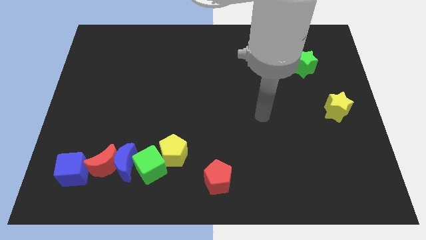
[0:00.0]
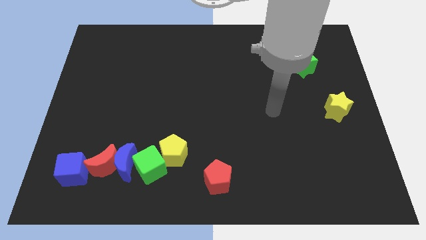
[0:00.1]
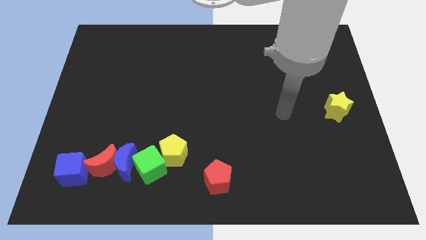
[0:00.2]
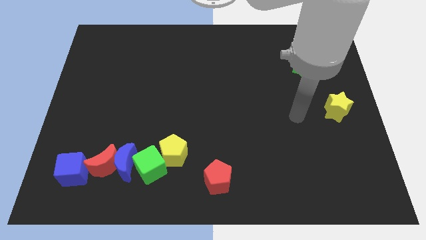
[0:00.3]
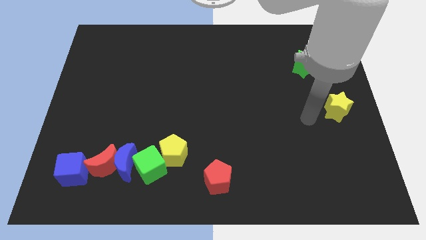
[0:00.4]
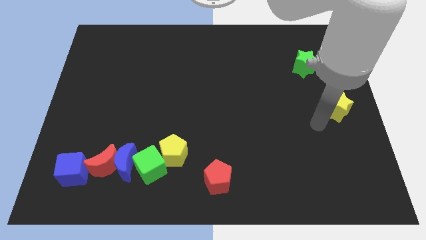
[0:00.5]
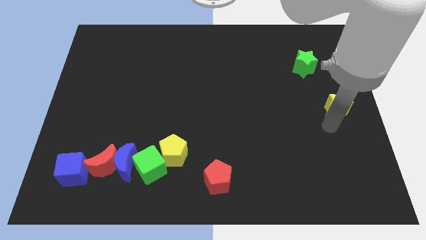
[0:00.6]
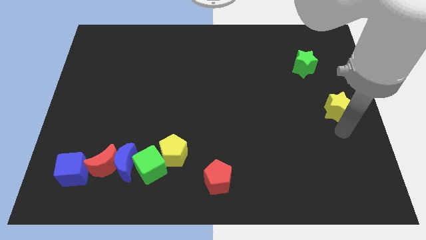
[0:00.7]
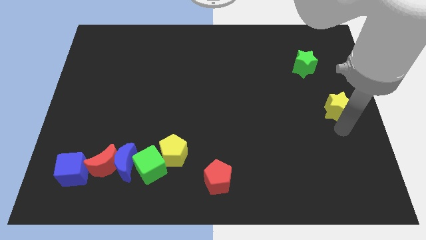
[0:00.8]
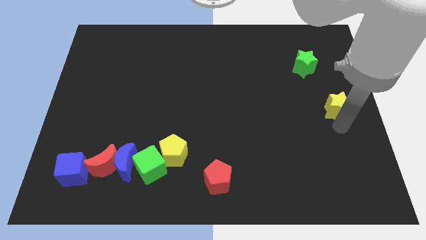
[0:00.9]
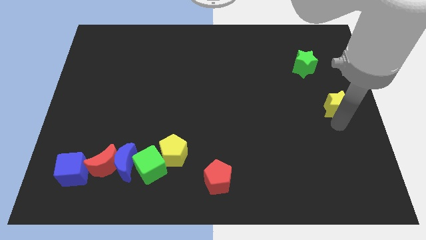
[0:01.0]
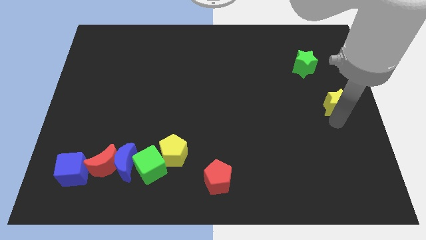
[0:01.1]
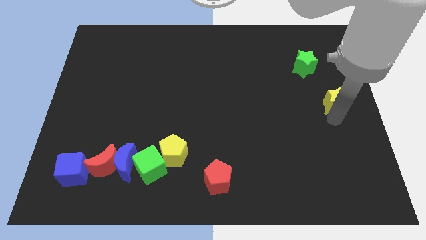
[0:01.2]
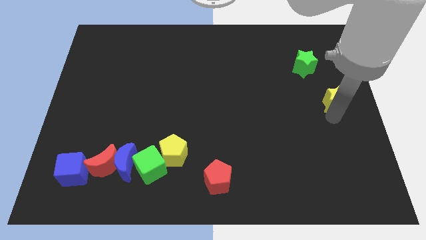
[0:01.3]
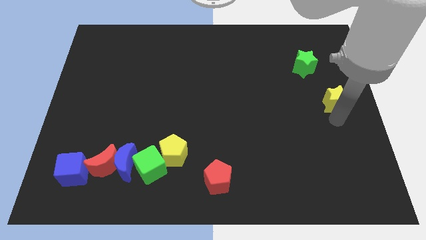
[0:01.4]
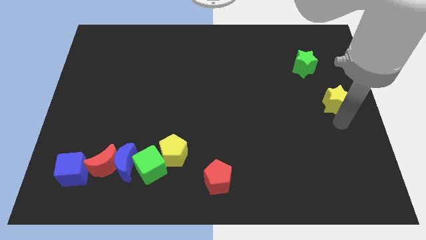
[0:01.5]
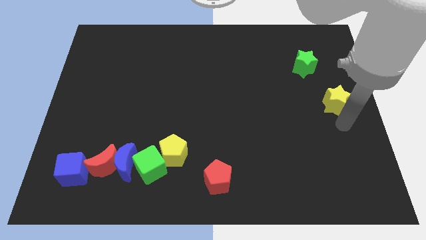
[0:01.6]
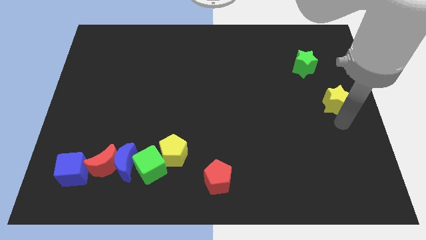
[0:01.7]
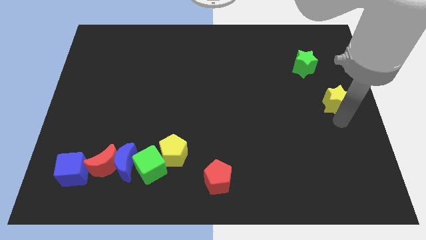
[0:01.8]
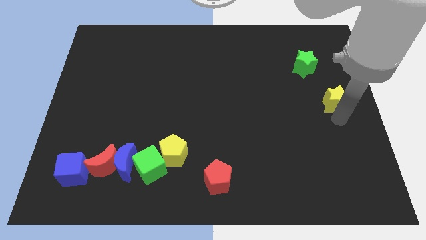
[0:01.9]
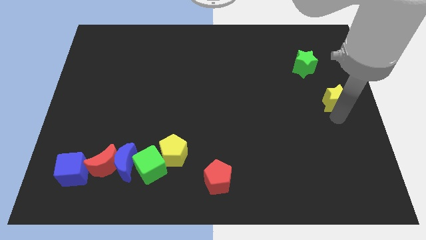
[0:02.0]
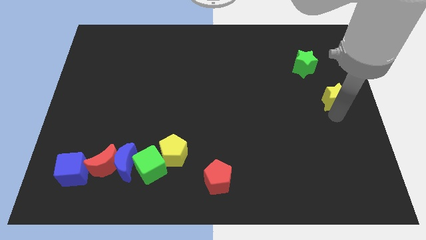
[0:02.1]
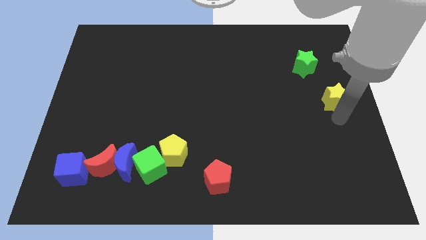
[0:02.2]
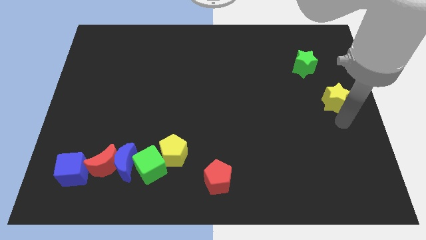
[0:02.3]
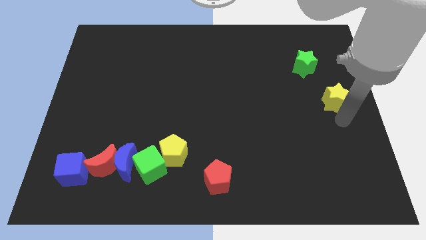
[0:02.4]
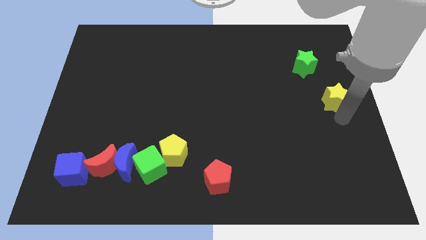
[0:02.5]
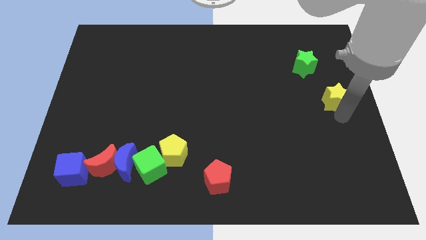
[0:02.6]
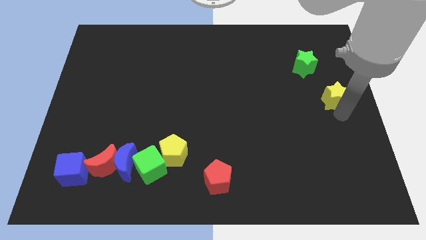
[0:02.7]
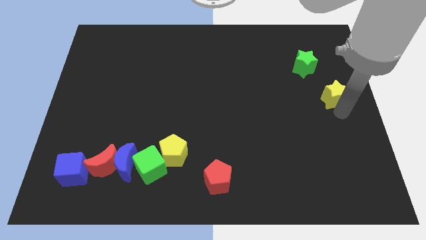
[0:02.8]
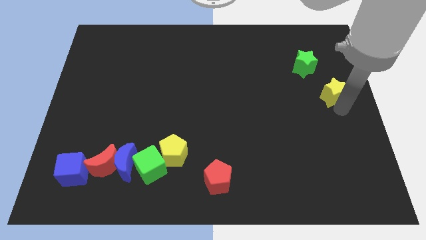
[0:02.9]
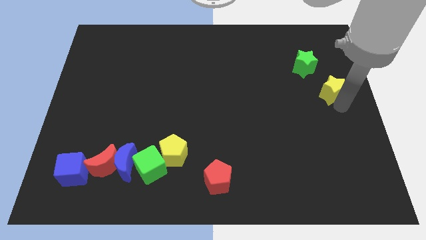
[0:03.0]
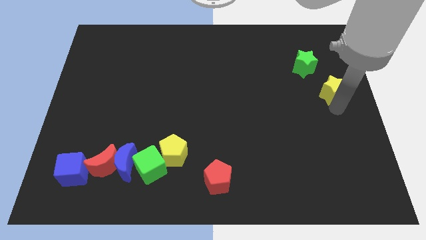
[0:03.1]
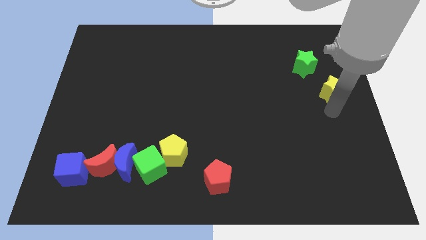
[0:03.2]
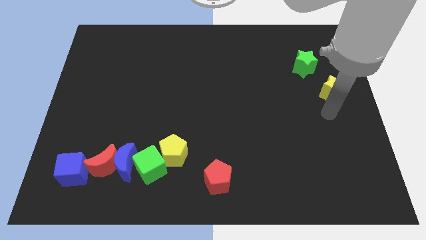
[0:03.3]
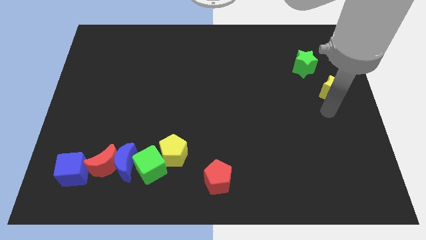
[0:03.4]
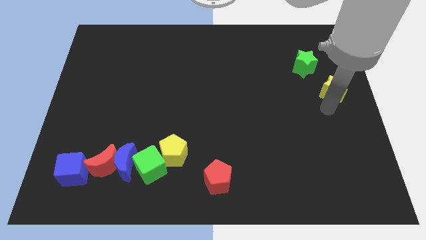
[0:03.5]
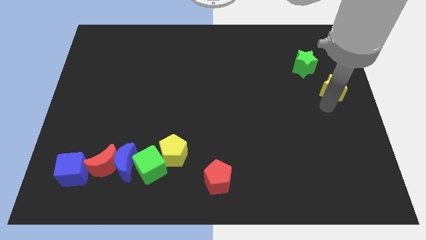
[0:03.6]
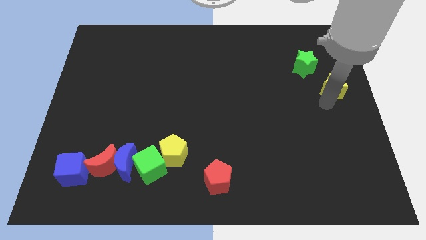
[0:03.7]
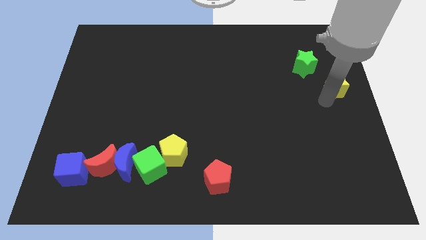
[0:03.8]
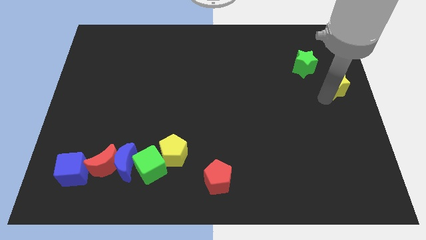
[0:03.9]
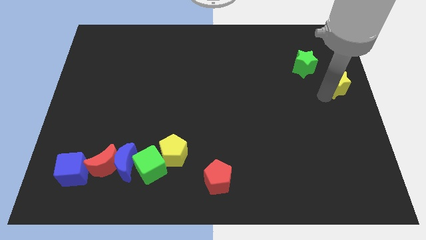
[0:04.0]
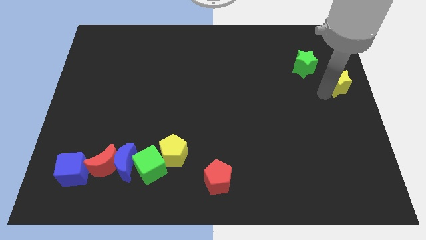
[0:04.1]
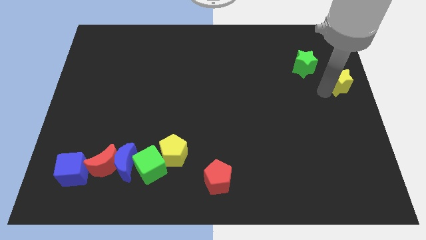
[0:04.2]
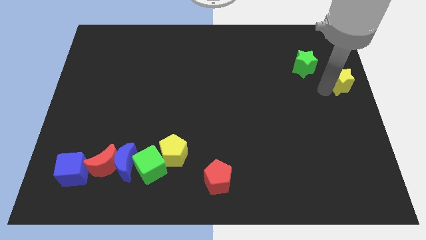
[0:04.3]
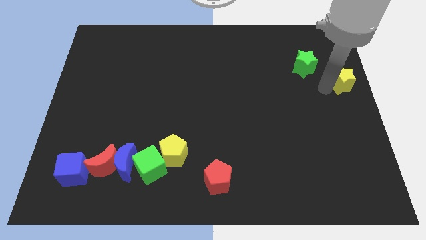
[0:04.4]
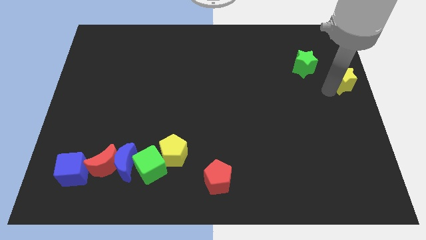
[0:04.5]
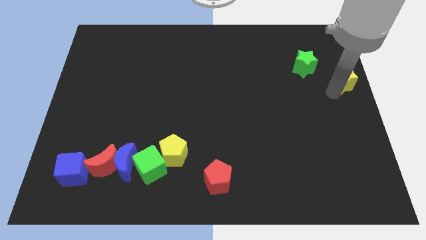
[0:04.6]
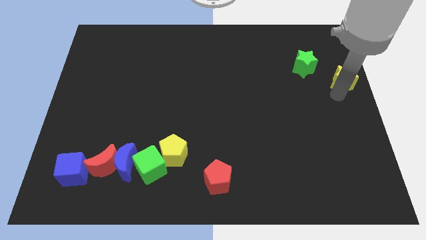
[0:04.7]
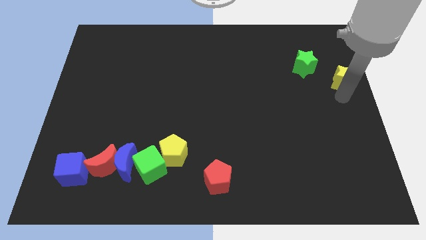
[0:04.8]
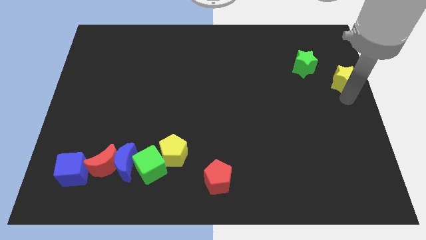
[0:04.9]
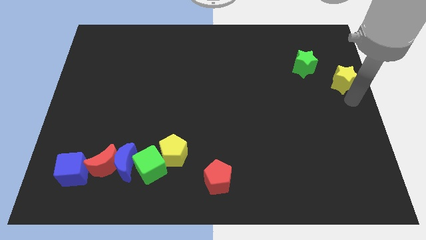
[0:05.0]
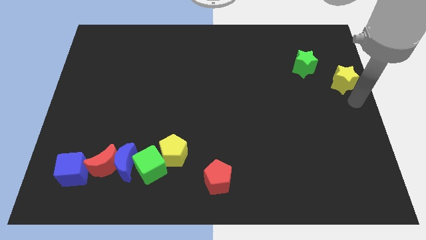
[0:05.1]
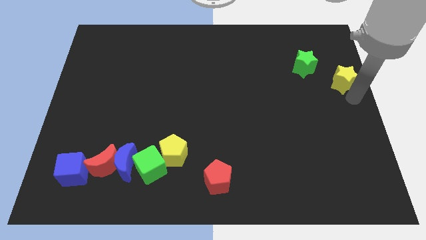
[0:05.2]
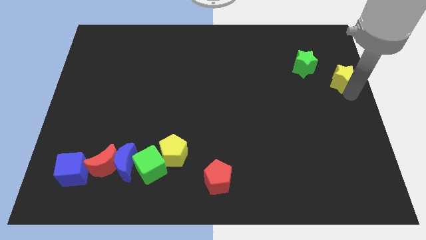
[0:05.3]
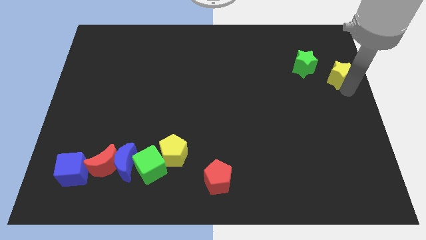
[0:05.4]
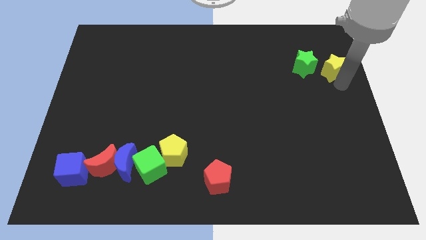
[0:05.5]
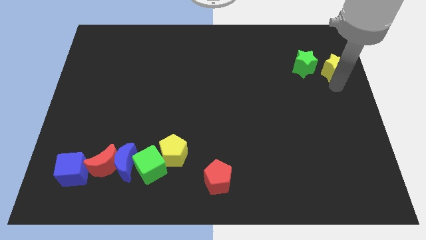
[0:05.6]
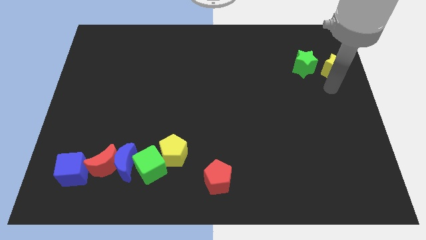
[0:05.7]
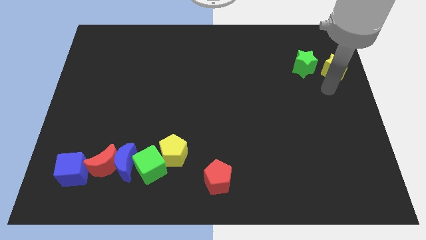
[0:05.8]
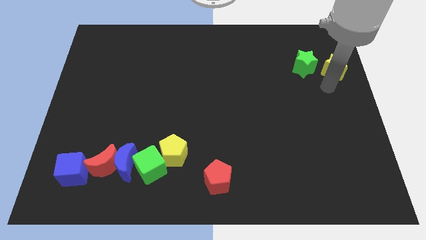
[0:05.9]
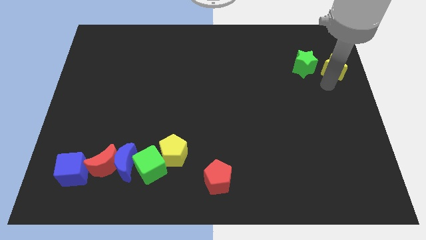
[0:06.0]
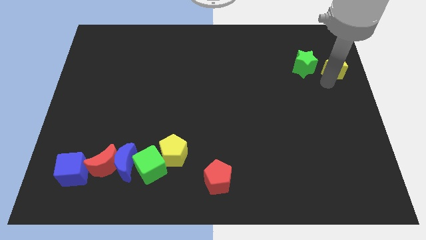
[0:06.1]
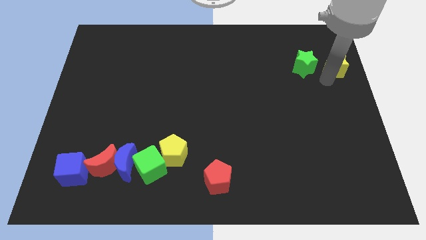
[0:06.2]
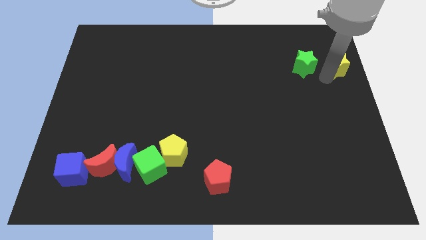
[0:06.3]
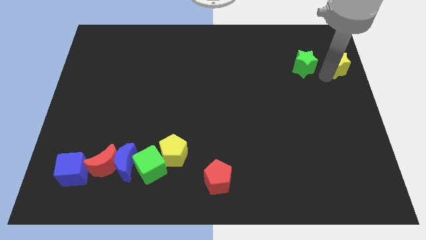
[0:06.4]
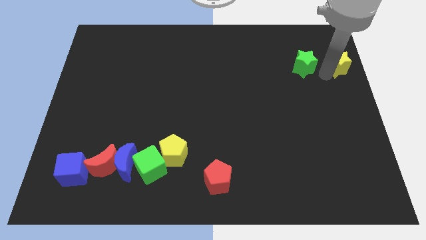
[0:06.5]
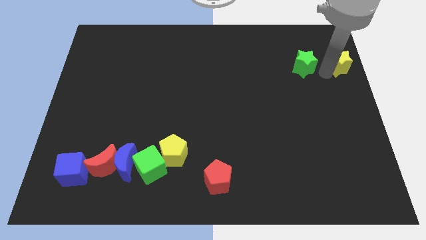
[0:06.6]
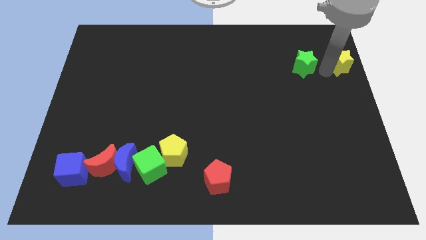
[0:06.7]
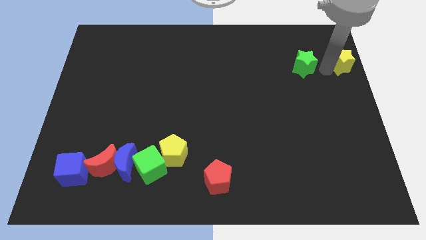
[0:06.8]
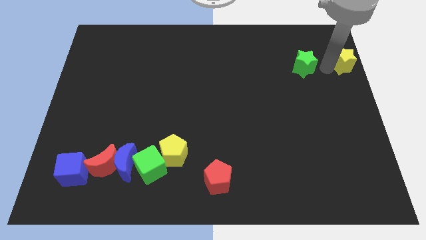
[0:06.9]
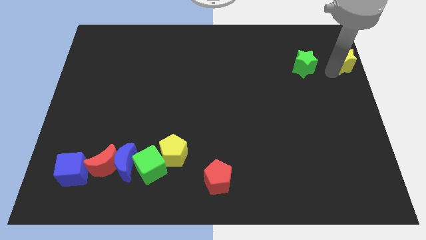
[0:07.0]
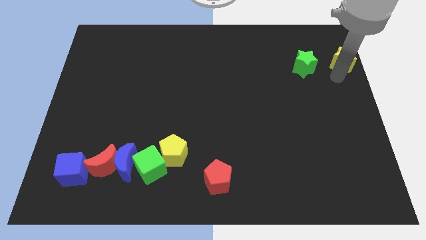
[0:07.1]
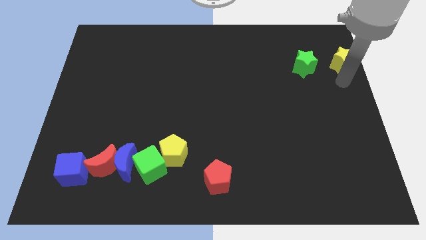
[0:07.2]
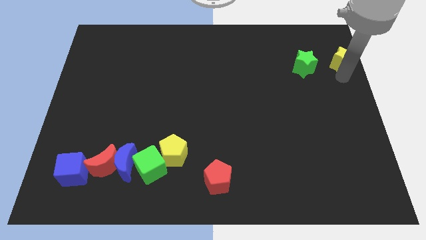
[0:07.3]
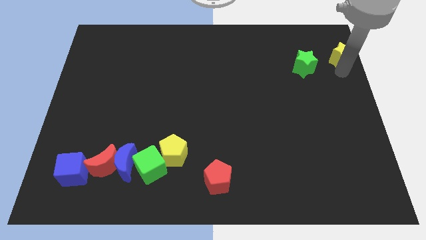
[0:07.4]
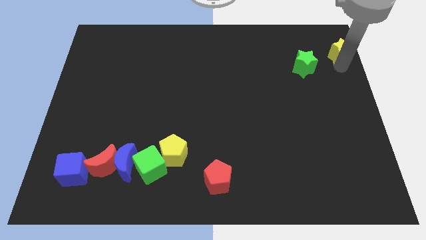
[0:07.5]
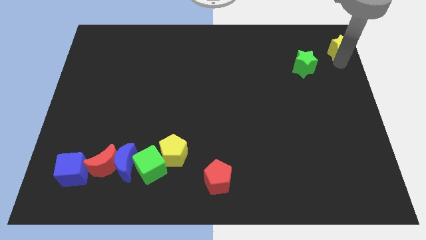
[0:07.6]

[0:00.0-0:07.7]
move the yellow star to the top right of the board
